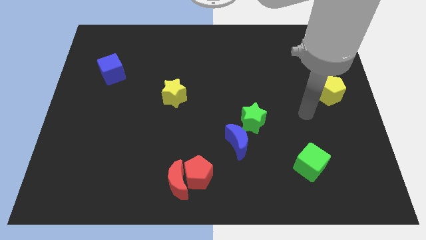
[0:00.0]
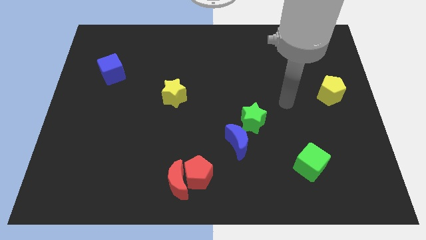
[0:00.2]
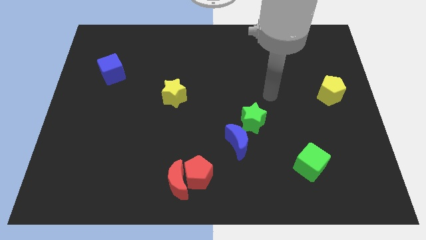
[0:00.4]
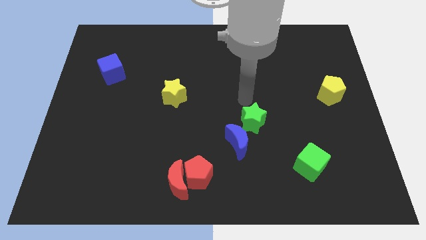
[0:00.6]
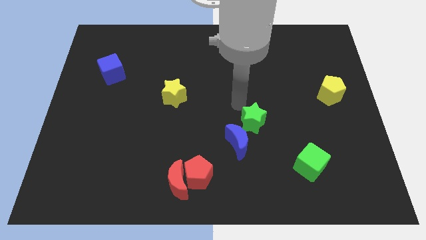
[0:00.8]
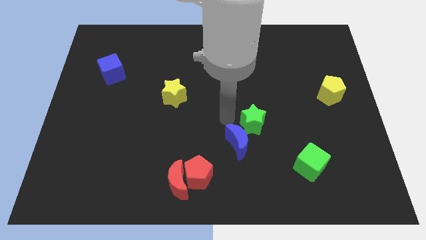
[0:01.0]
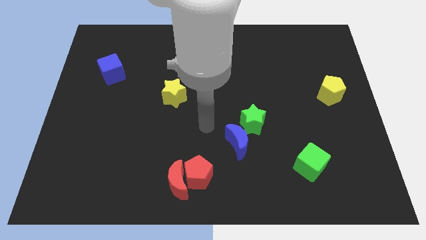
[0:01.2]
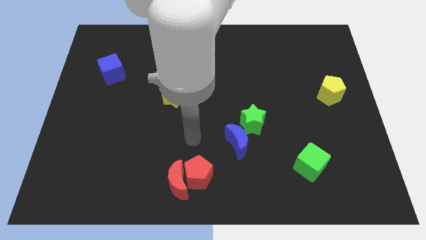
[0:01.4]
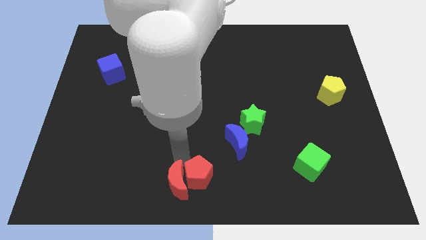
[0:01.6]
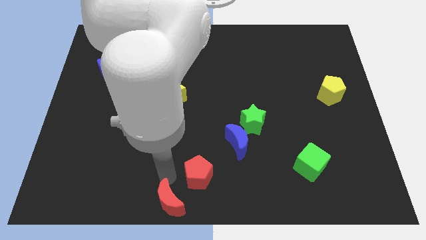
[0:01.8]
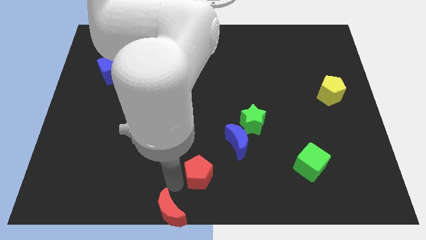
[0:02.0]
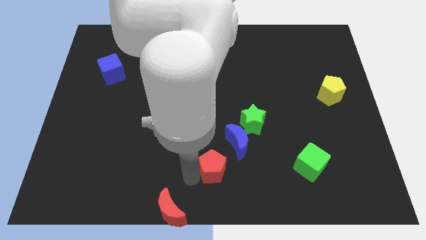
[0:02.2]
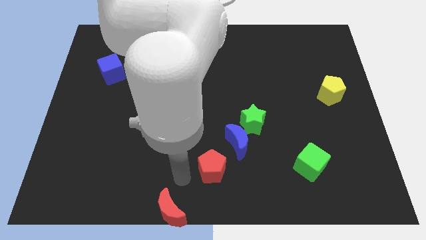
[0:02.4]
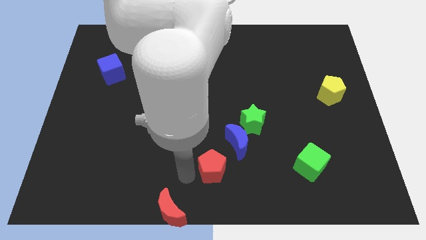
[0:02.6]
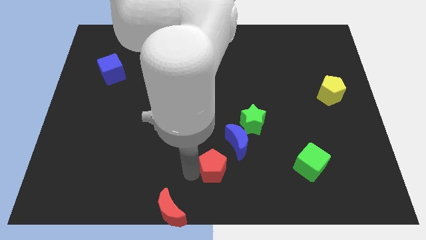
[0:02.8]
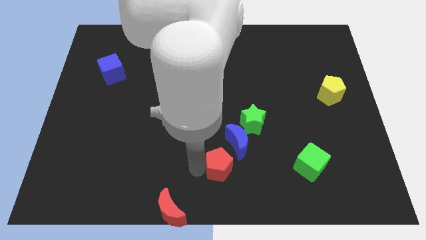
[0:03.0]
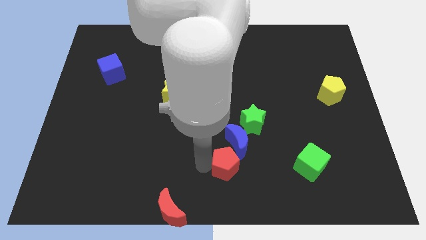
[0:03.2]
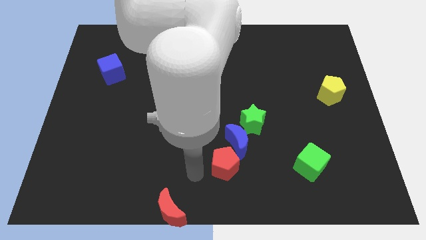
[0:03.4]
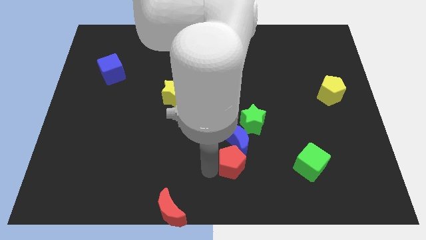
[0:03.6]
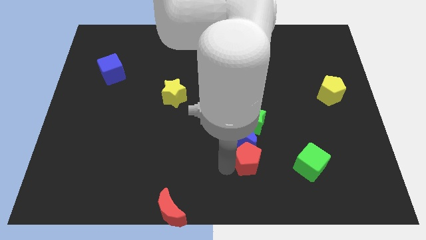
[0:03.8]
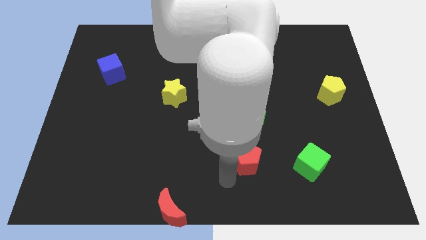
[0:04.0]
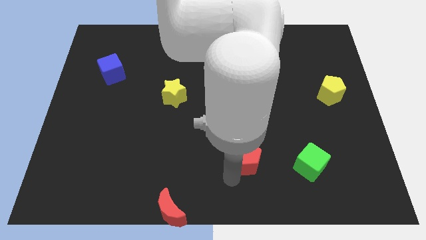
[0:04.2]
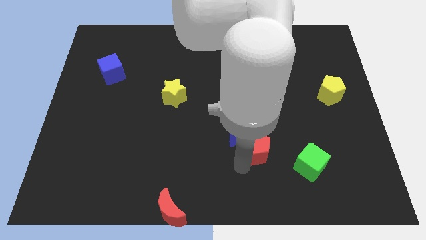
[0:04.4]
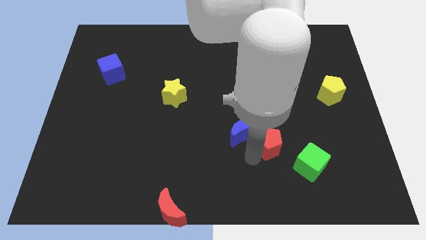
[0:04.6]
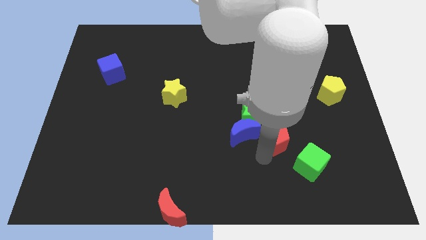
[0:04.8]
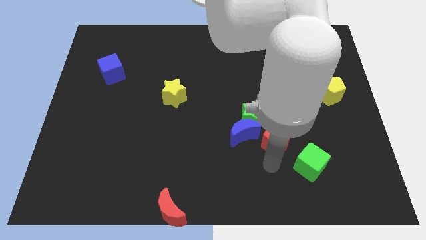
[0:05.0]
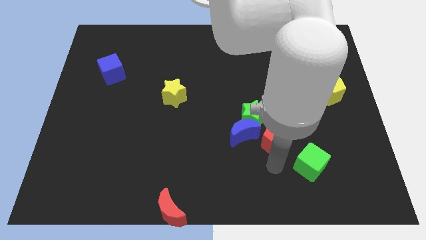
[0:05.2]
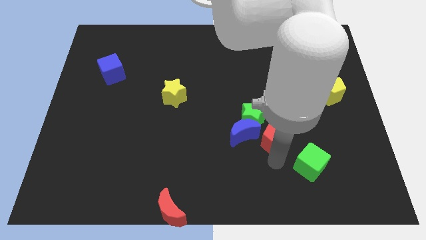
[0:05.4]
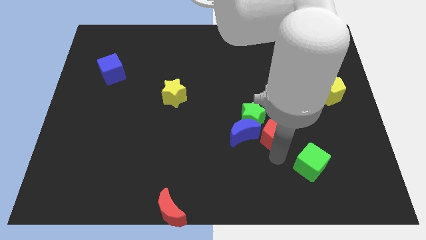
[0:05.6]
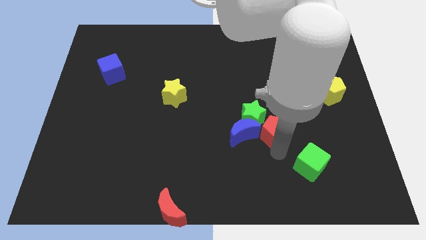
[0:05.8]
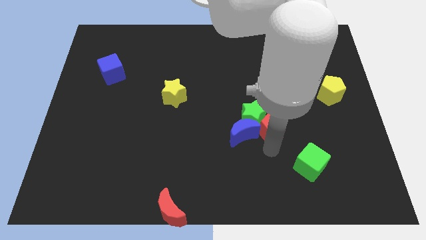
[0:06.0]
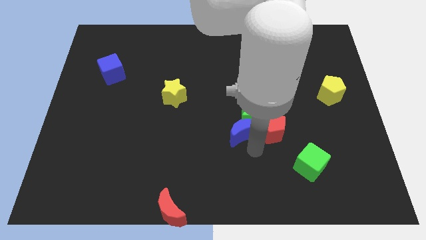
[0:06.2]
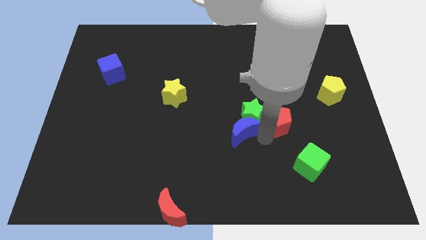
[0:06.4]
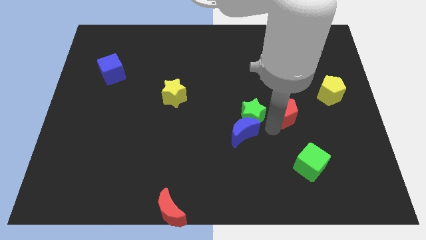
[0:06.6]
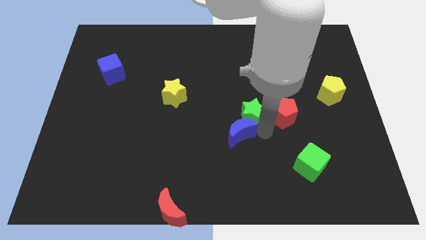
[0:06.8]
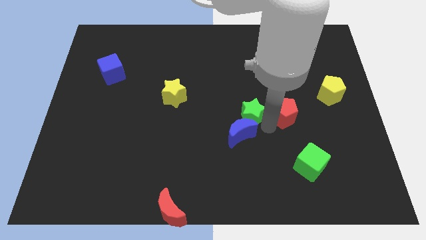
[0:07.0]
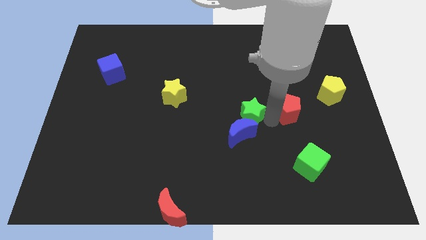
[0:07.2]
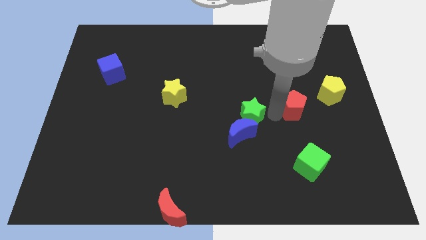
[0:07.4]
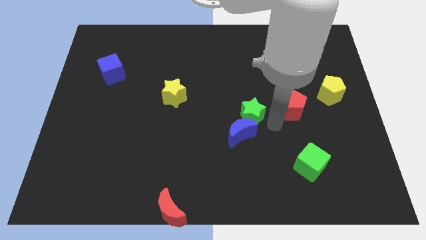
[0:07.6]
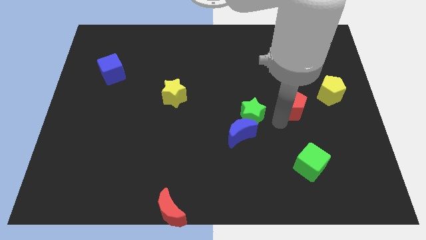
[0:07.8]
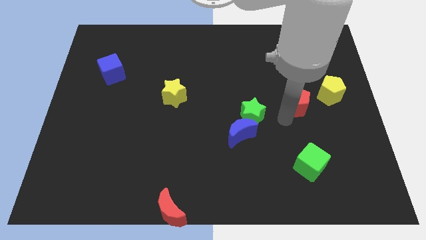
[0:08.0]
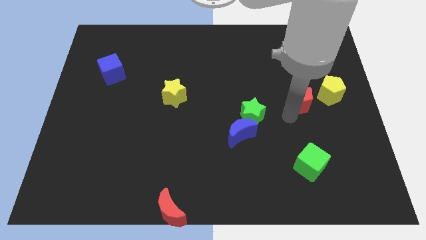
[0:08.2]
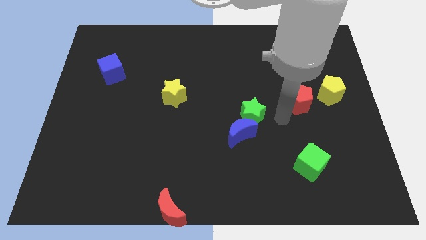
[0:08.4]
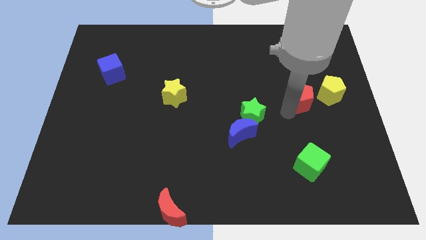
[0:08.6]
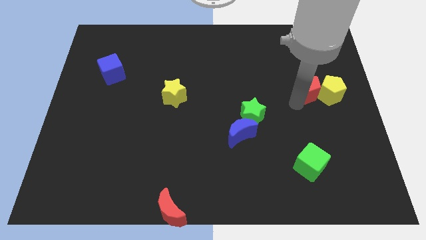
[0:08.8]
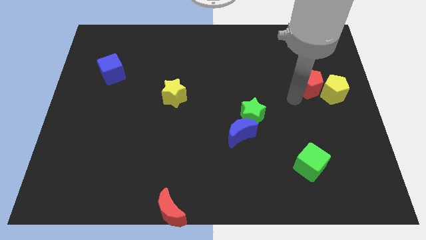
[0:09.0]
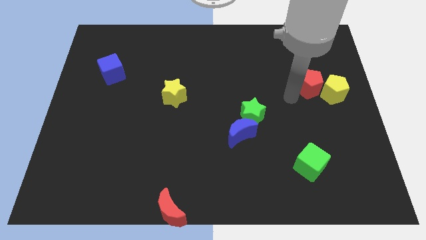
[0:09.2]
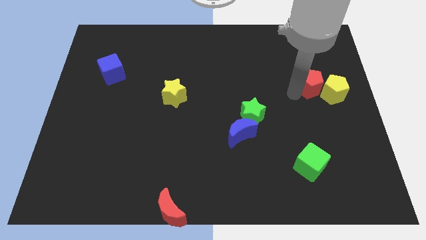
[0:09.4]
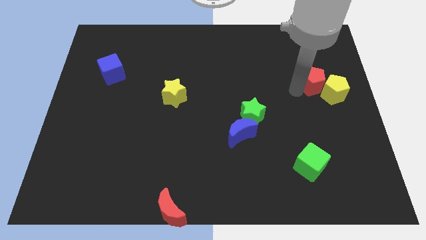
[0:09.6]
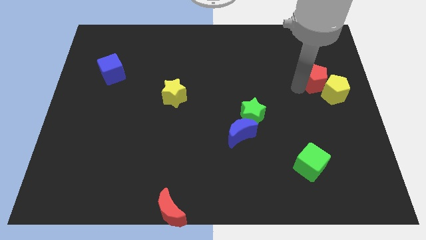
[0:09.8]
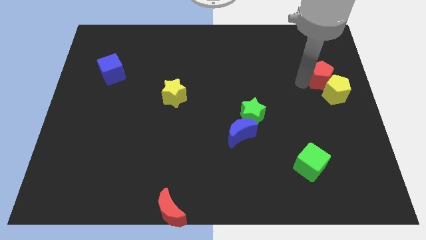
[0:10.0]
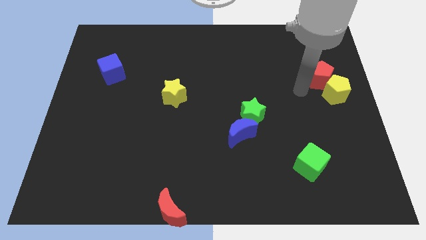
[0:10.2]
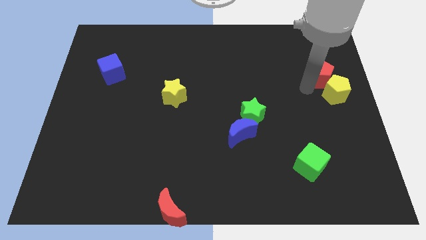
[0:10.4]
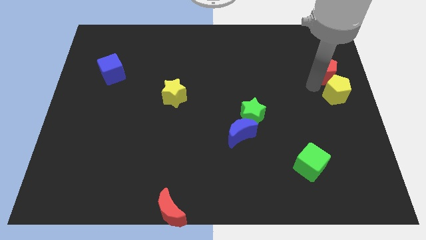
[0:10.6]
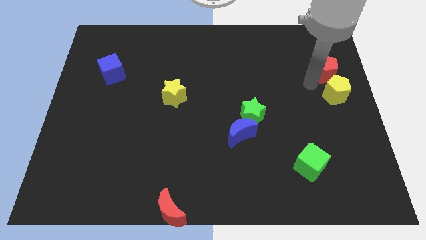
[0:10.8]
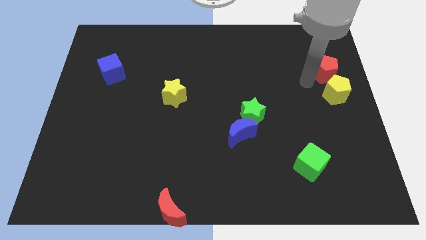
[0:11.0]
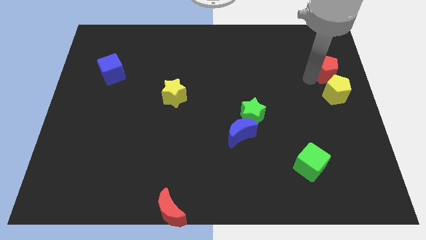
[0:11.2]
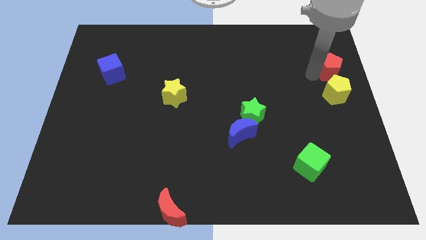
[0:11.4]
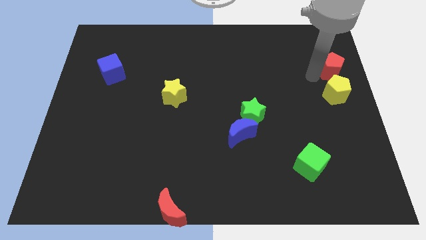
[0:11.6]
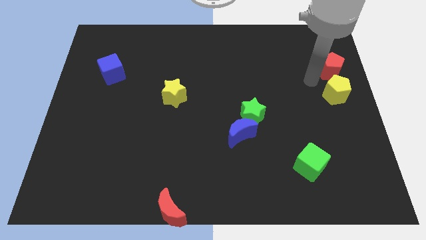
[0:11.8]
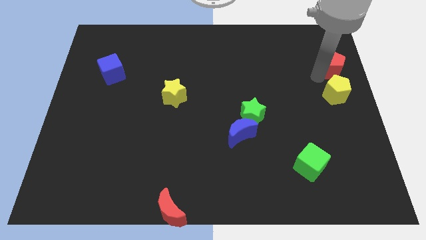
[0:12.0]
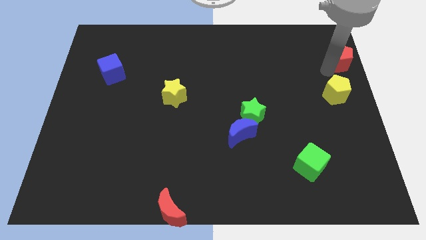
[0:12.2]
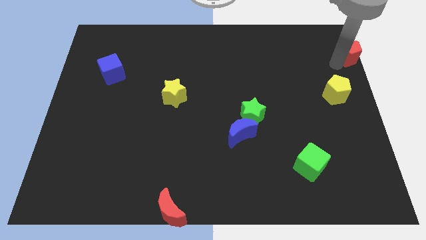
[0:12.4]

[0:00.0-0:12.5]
push the red pentagon to the top right
